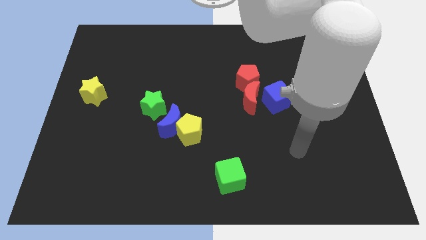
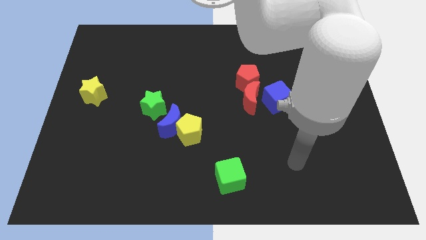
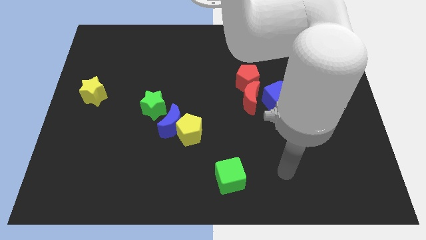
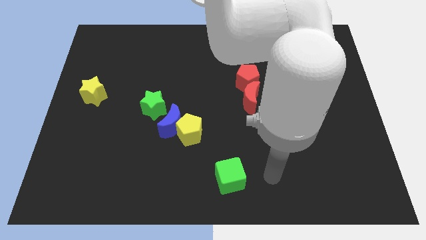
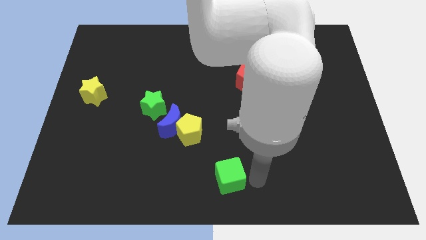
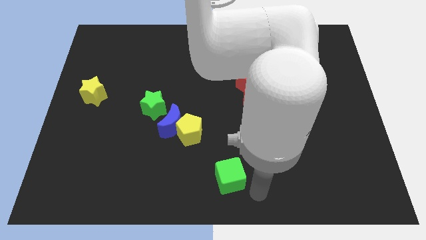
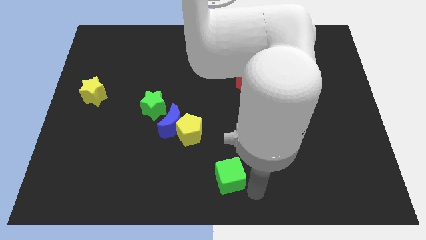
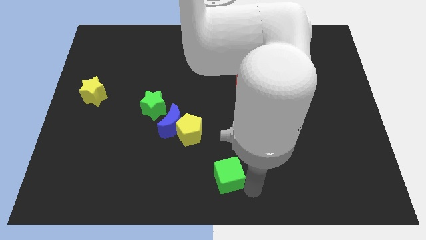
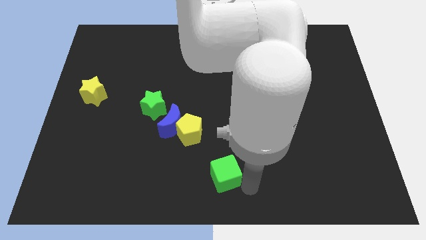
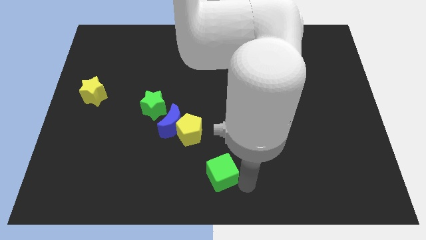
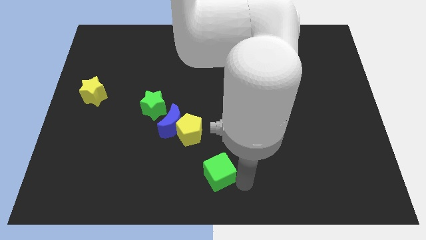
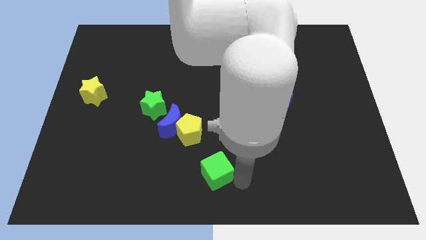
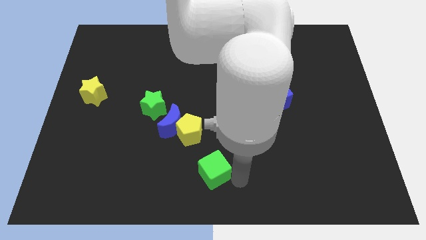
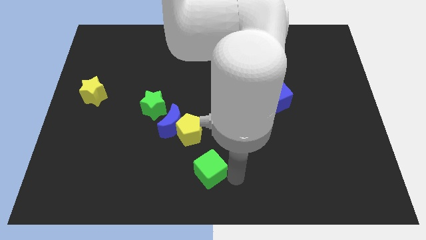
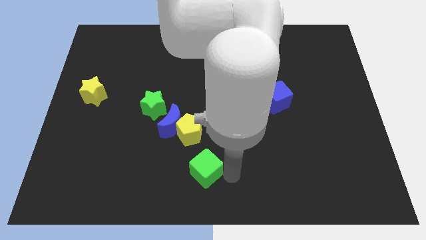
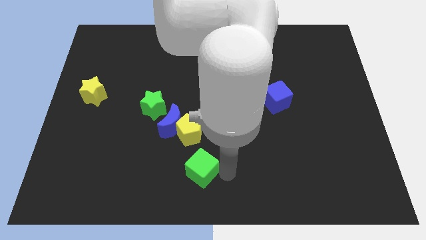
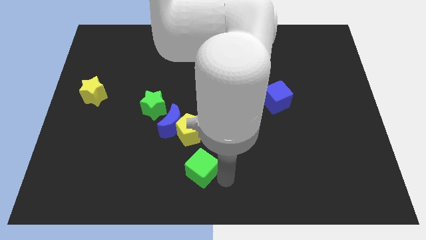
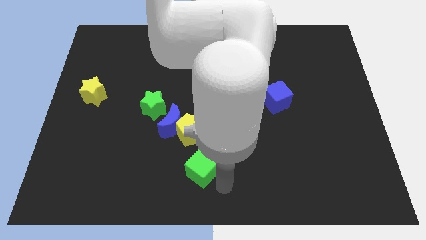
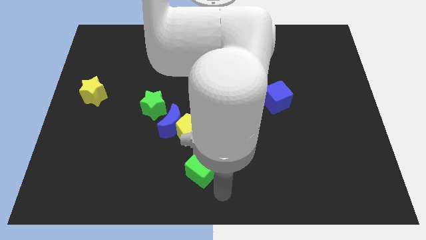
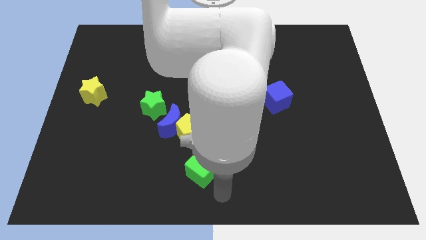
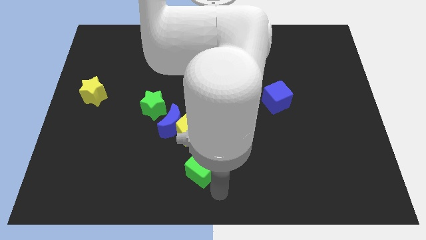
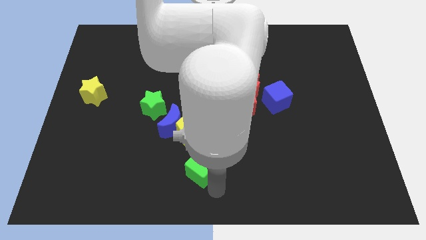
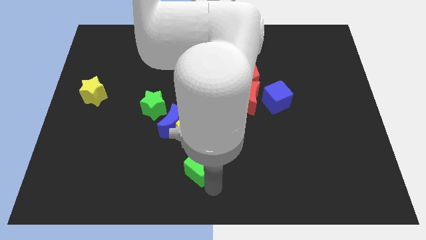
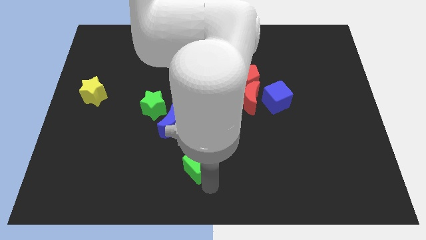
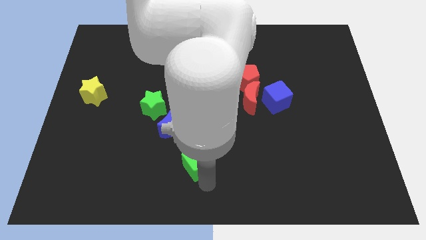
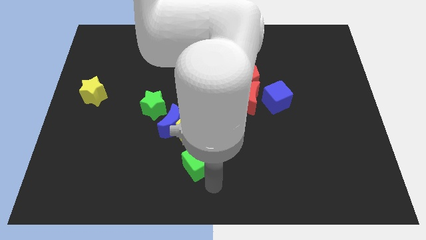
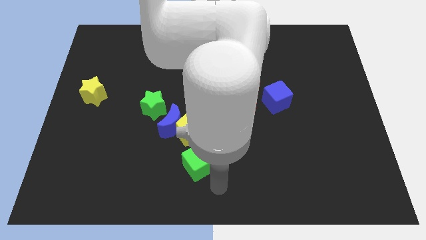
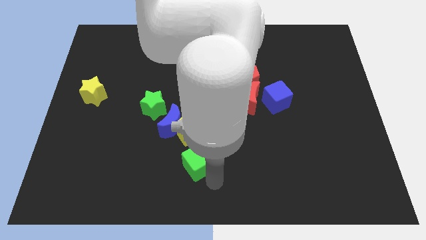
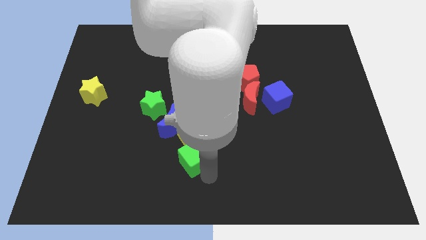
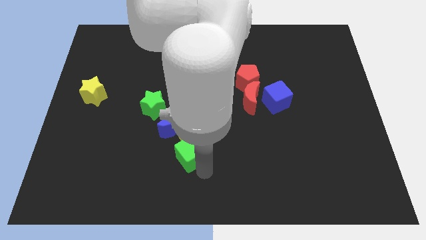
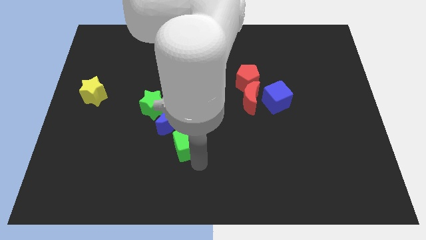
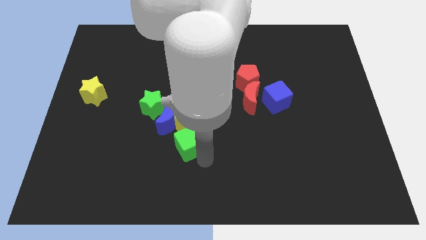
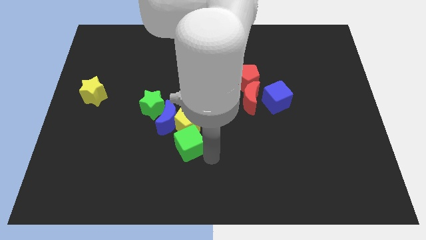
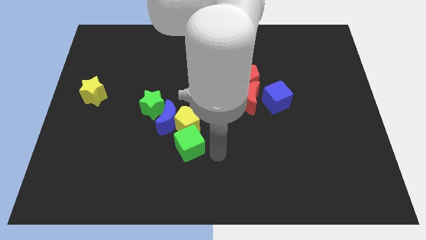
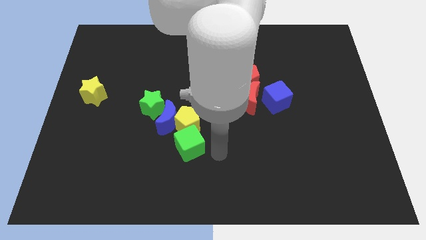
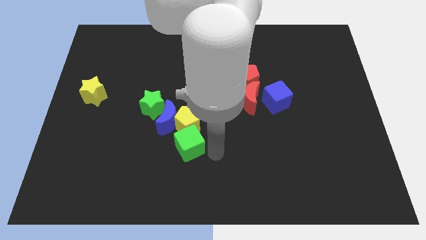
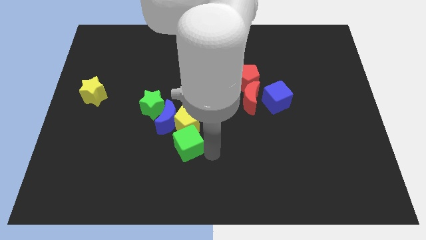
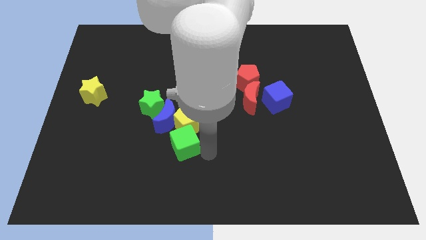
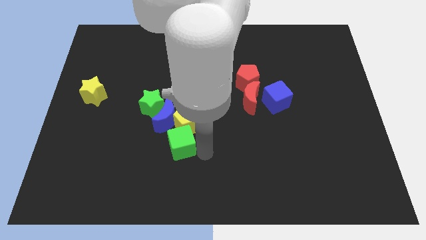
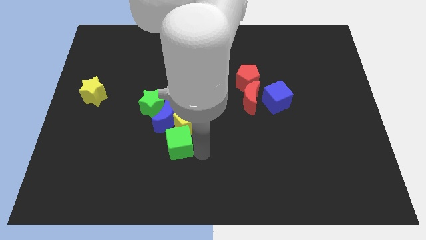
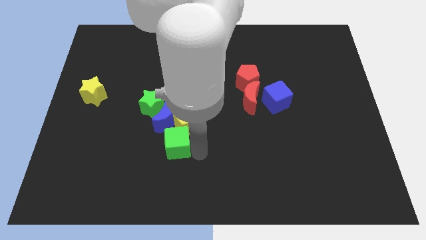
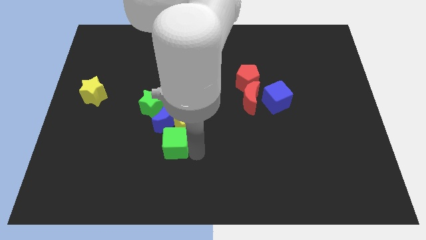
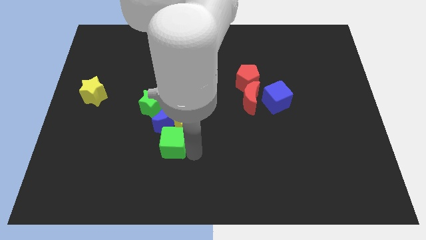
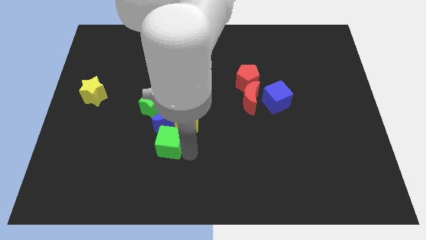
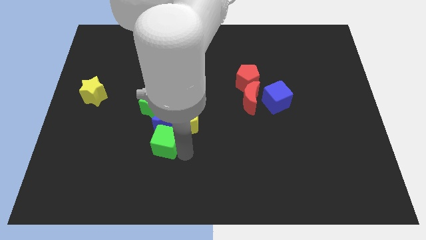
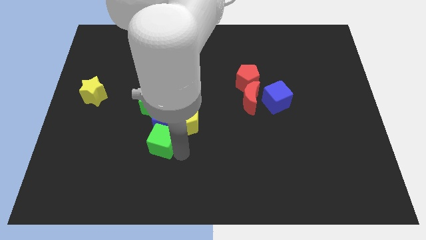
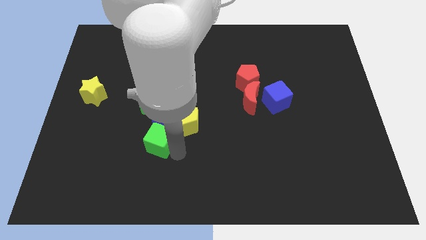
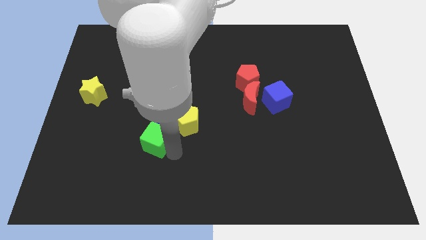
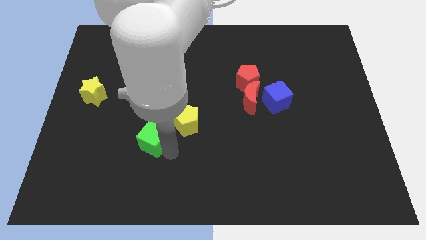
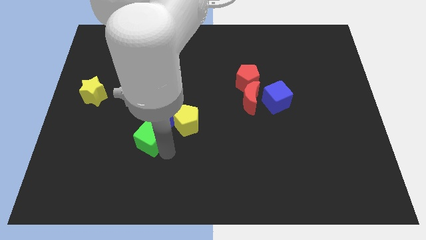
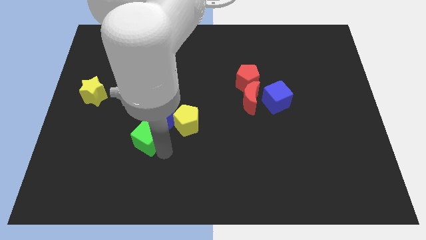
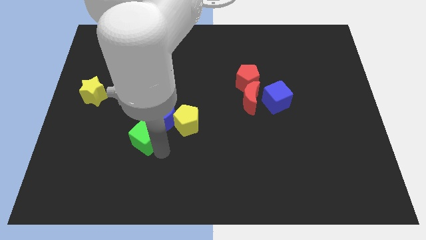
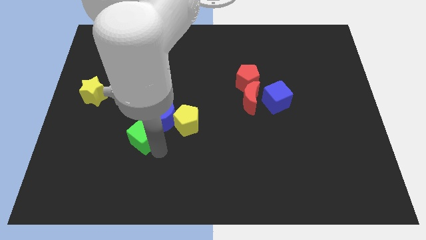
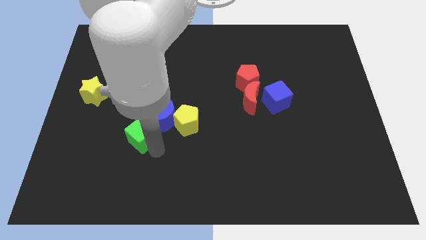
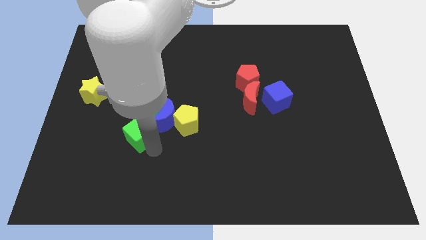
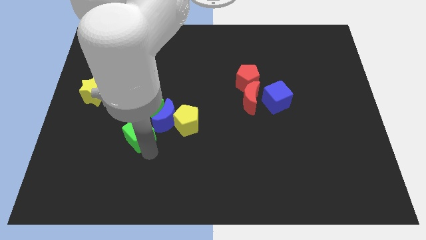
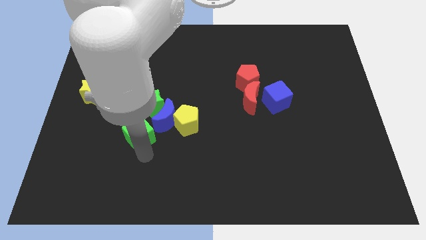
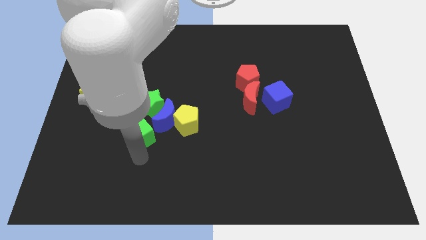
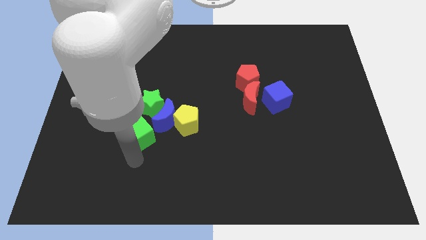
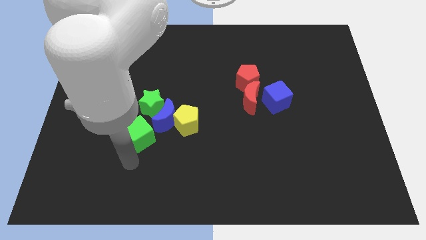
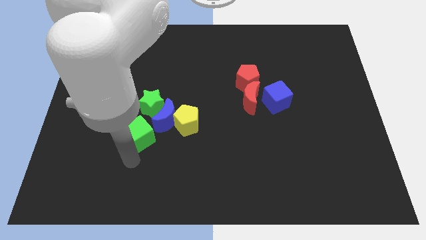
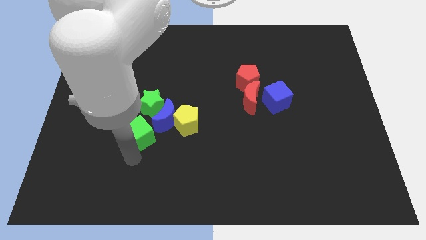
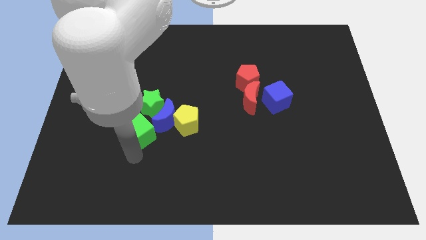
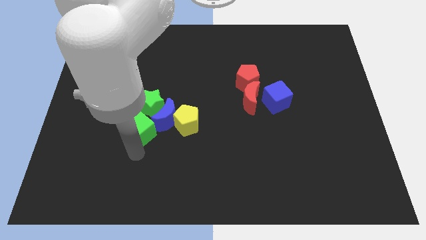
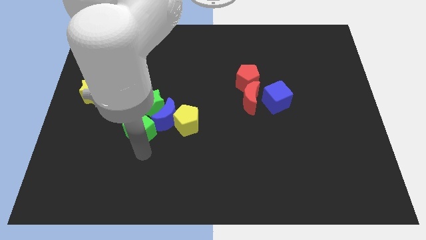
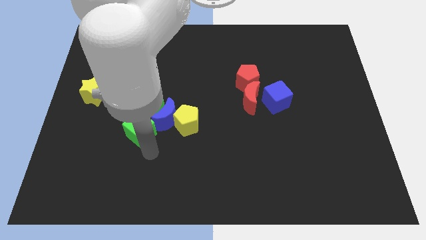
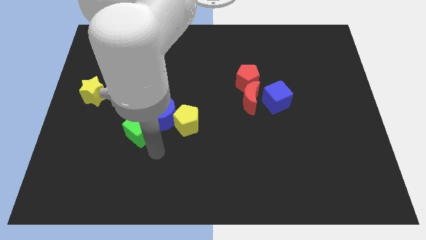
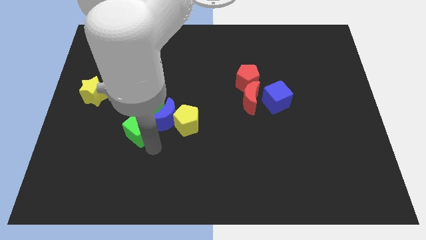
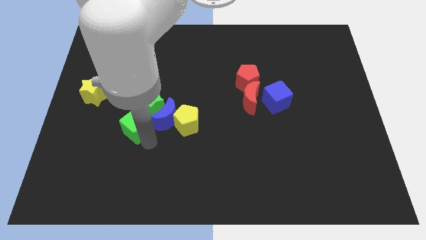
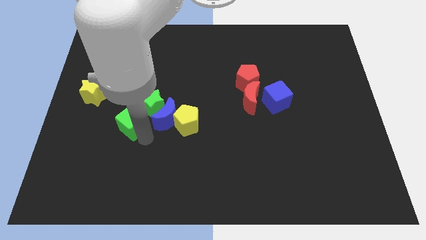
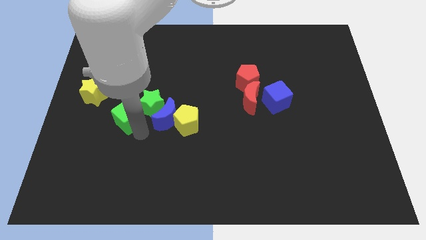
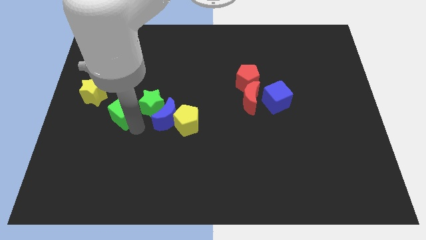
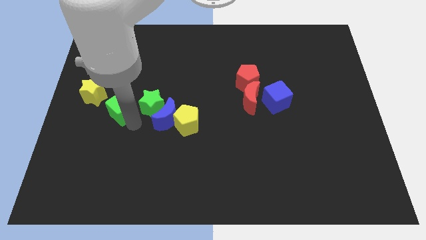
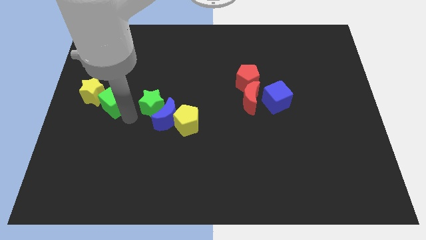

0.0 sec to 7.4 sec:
put the green cube to the yellow star
